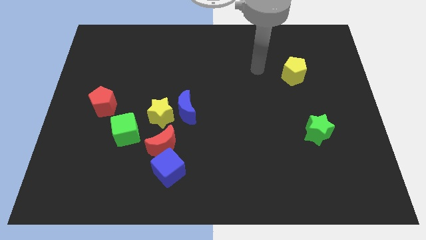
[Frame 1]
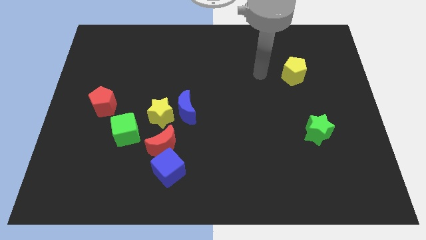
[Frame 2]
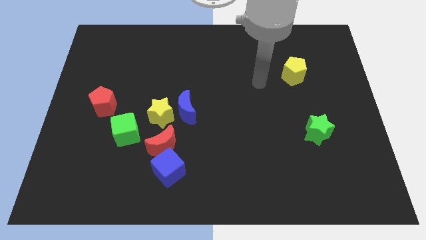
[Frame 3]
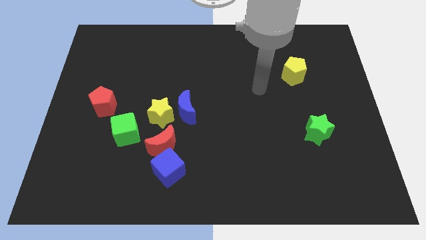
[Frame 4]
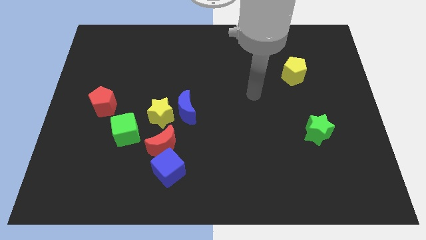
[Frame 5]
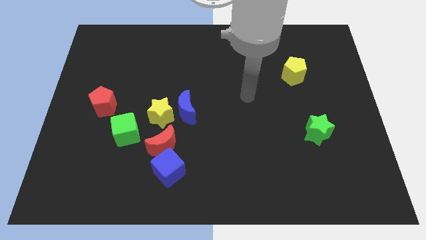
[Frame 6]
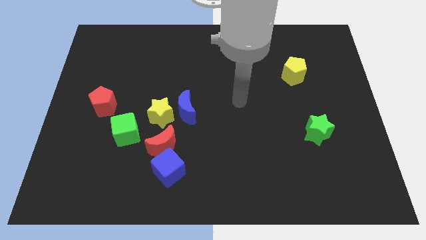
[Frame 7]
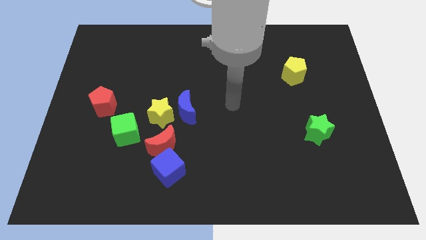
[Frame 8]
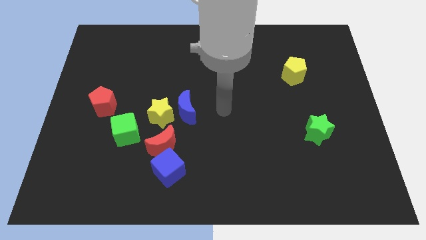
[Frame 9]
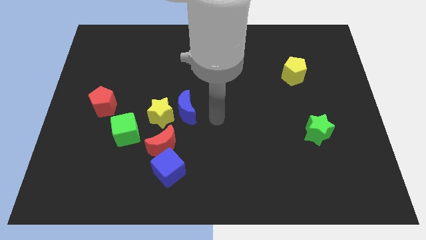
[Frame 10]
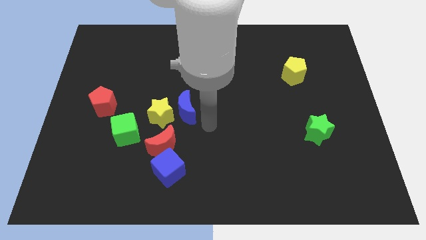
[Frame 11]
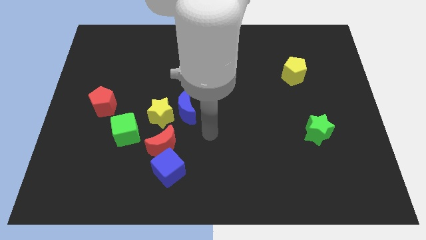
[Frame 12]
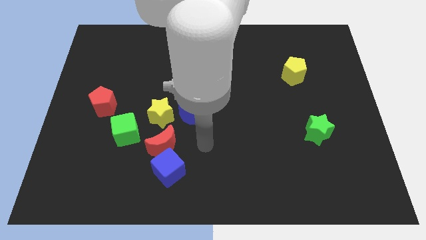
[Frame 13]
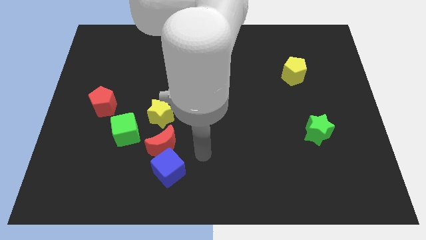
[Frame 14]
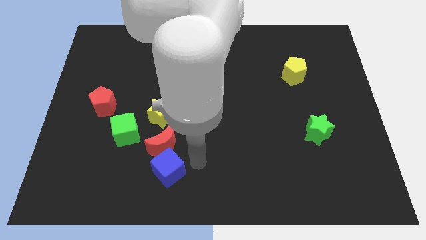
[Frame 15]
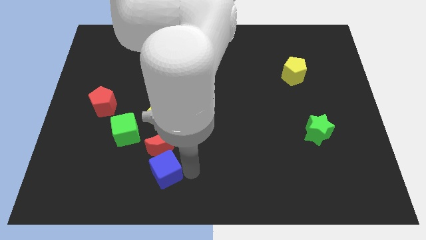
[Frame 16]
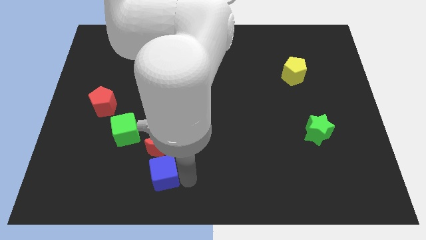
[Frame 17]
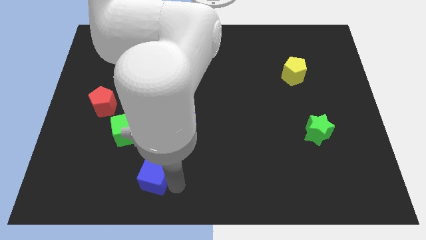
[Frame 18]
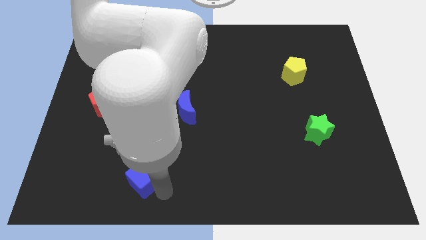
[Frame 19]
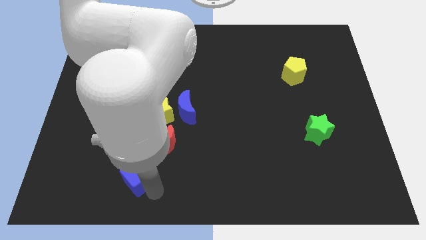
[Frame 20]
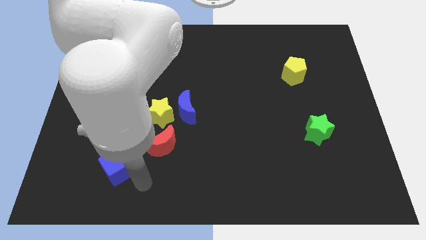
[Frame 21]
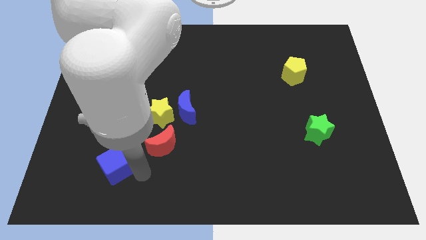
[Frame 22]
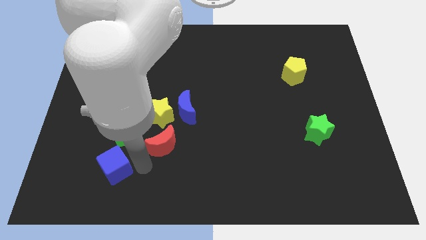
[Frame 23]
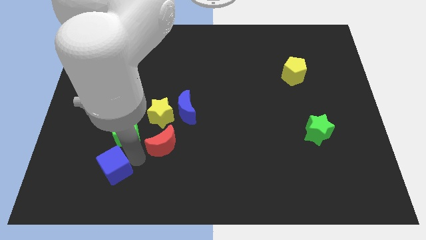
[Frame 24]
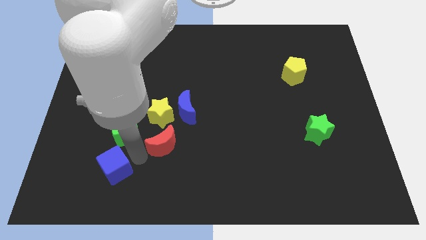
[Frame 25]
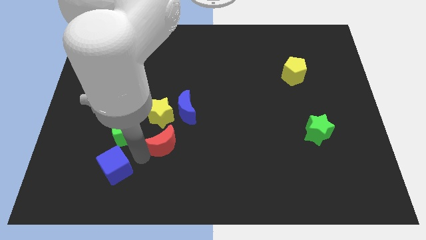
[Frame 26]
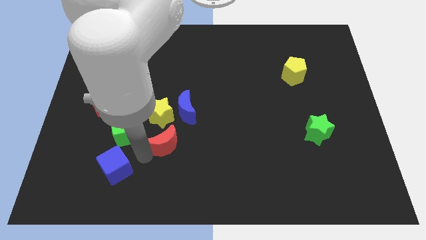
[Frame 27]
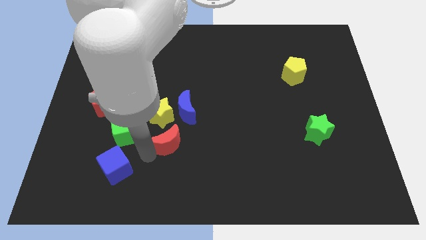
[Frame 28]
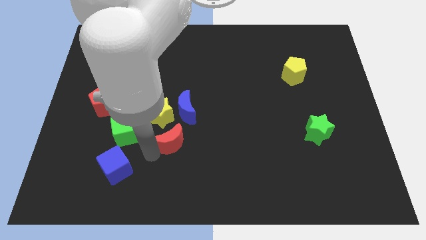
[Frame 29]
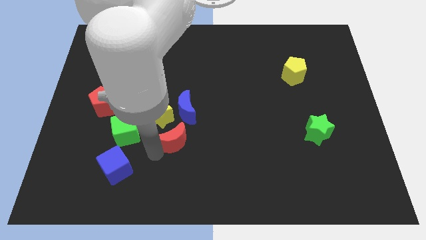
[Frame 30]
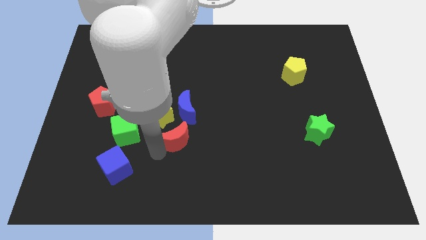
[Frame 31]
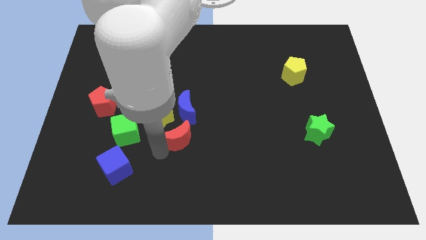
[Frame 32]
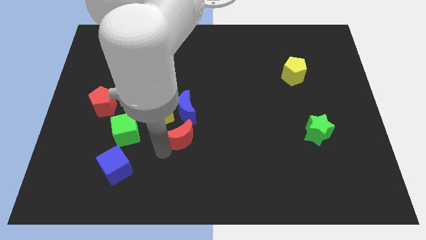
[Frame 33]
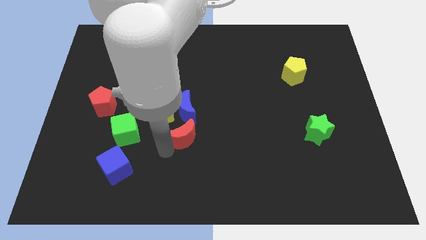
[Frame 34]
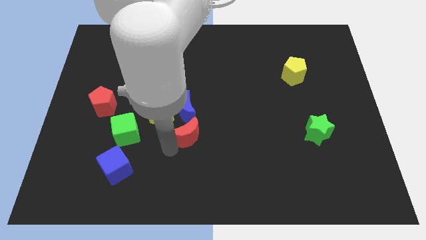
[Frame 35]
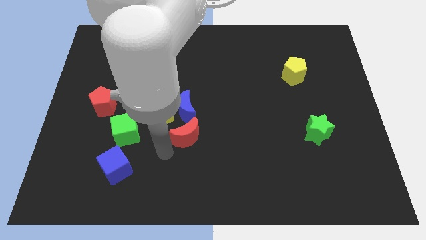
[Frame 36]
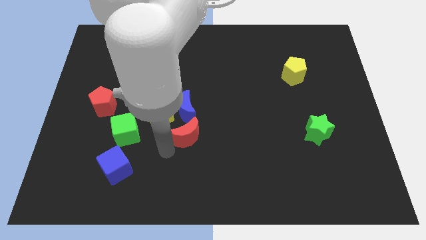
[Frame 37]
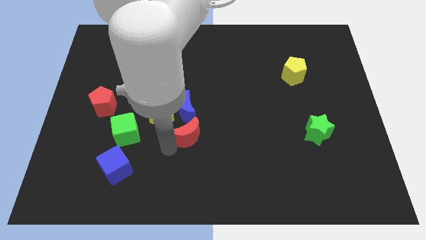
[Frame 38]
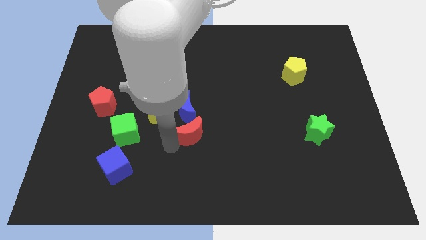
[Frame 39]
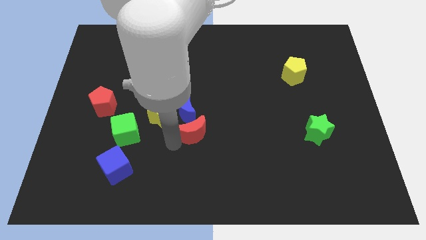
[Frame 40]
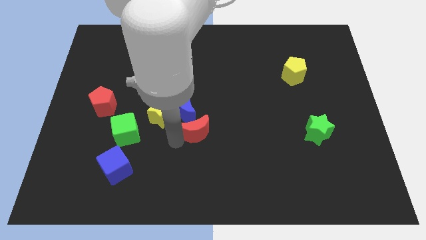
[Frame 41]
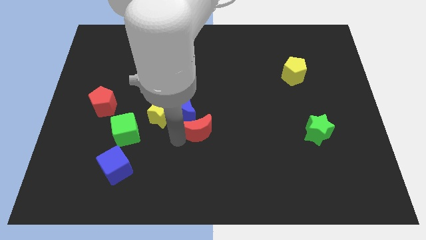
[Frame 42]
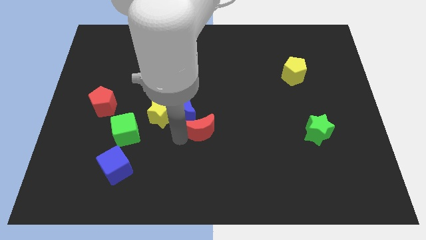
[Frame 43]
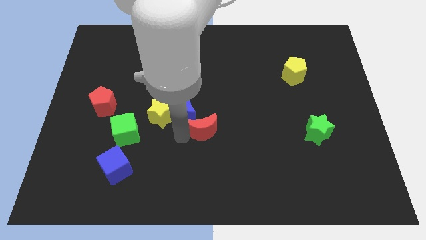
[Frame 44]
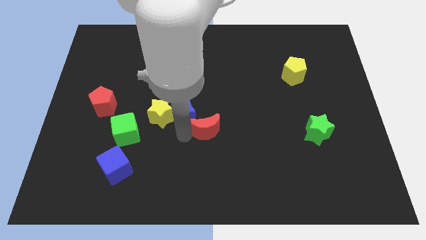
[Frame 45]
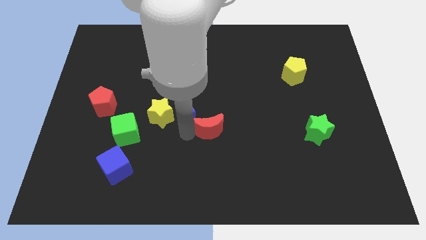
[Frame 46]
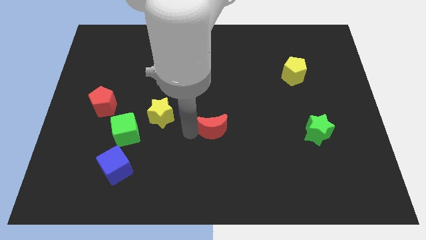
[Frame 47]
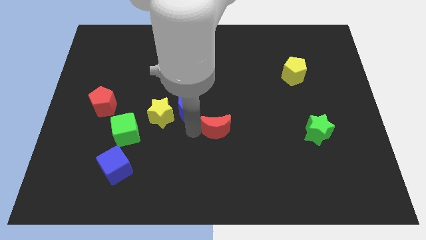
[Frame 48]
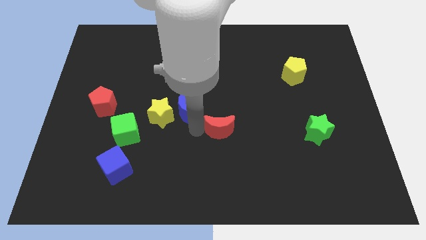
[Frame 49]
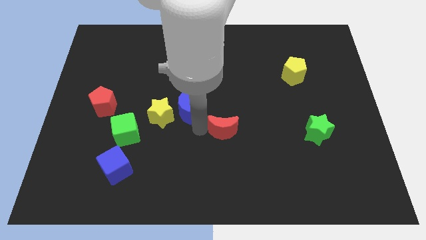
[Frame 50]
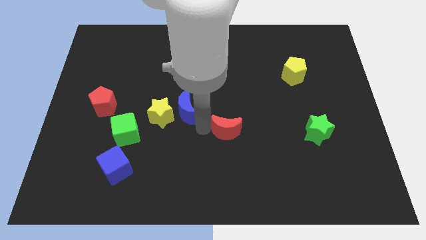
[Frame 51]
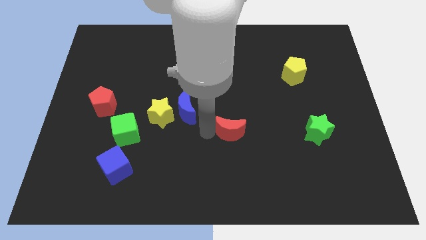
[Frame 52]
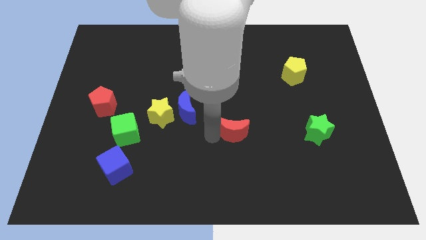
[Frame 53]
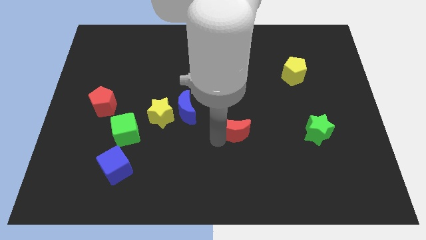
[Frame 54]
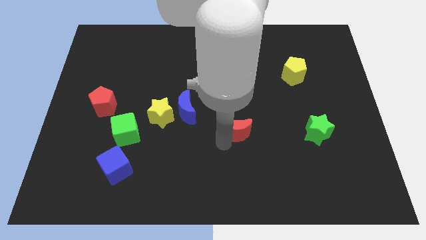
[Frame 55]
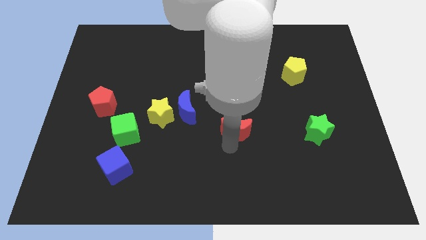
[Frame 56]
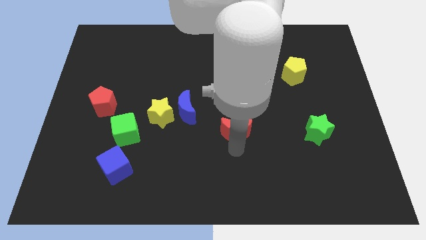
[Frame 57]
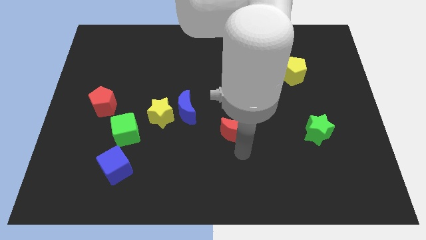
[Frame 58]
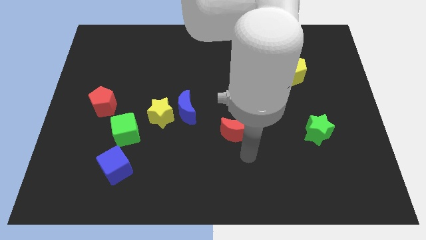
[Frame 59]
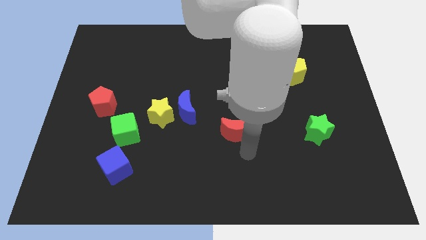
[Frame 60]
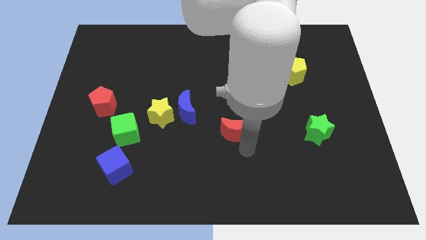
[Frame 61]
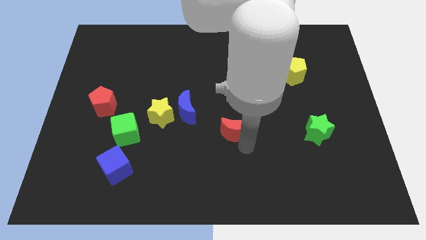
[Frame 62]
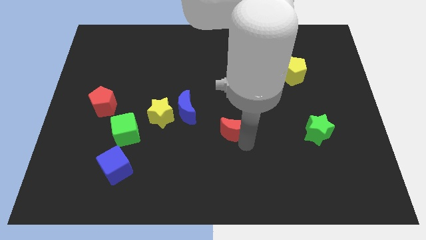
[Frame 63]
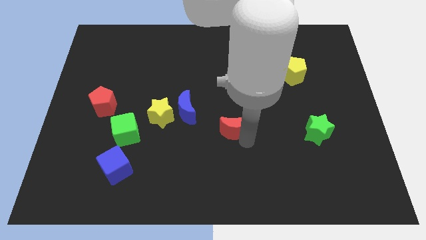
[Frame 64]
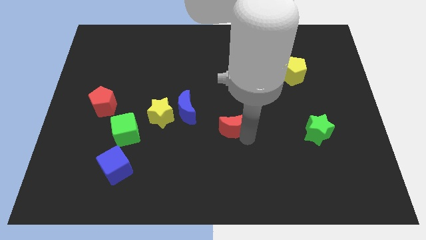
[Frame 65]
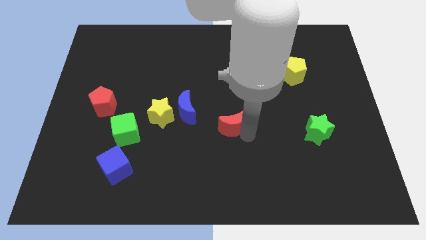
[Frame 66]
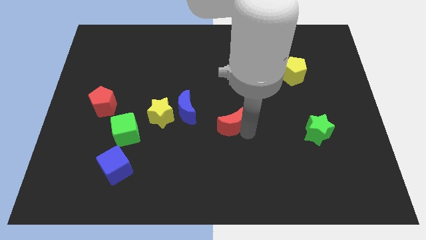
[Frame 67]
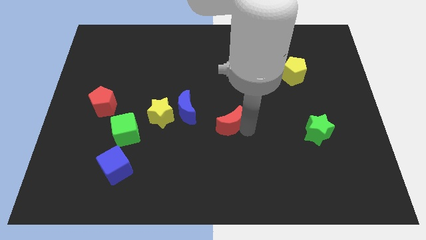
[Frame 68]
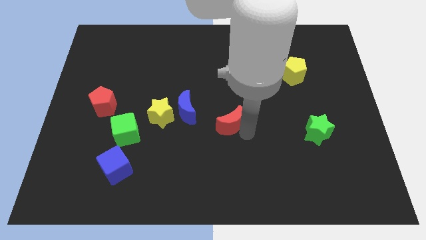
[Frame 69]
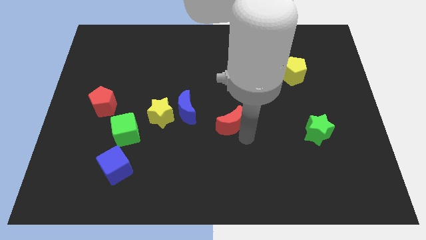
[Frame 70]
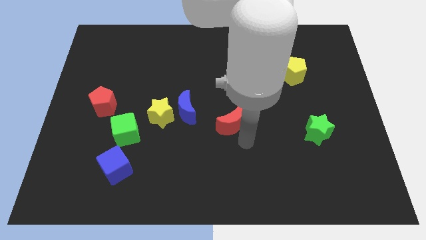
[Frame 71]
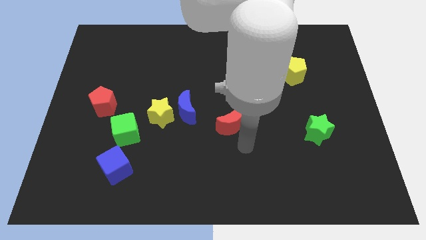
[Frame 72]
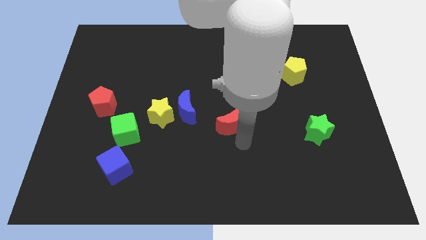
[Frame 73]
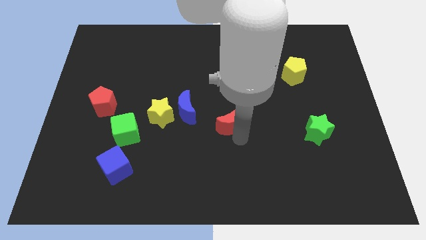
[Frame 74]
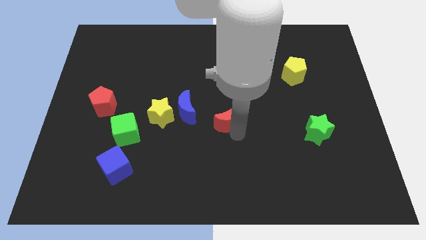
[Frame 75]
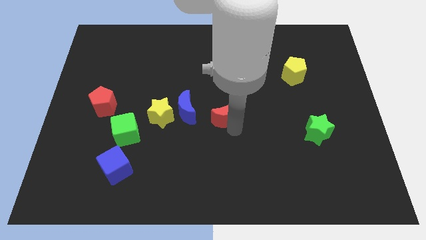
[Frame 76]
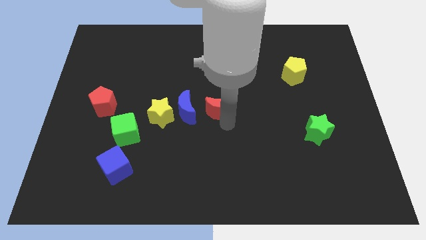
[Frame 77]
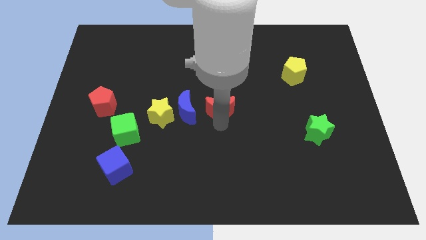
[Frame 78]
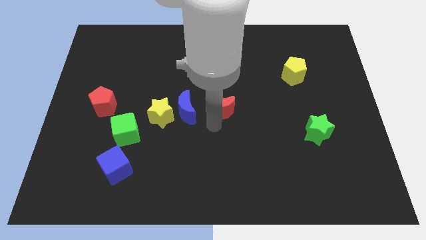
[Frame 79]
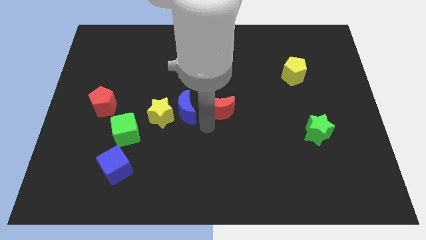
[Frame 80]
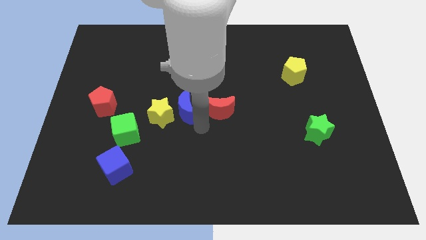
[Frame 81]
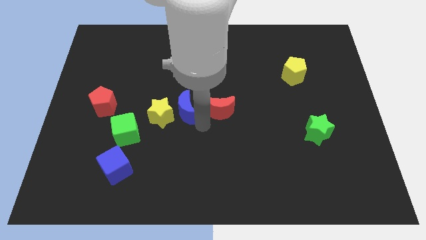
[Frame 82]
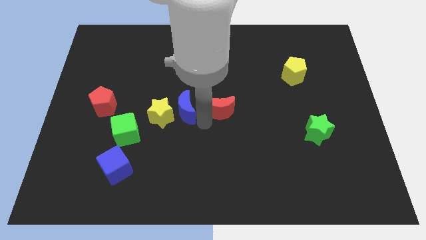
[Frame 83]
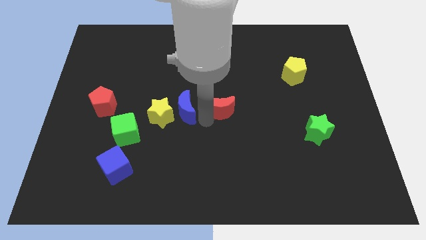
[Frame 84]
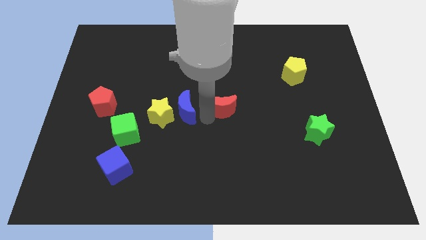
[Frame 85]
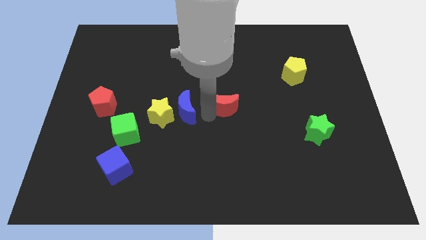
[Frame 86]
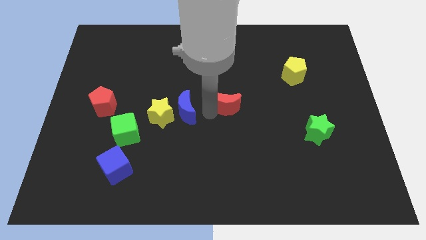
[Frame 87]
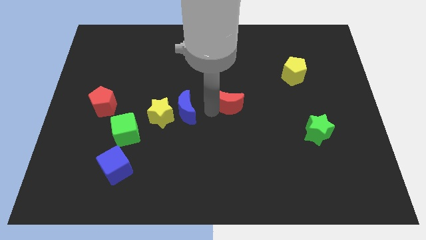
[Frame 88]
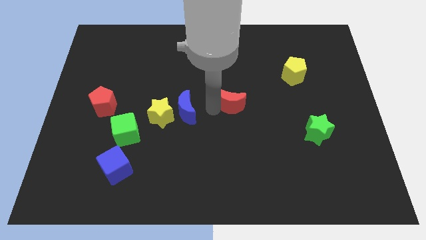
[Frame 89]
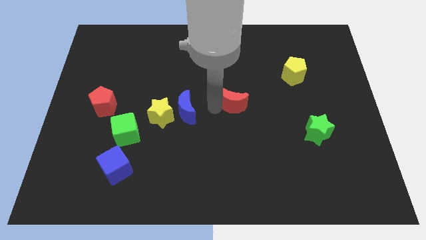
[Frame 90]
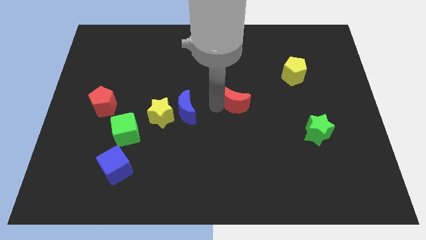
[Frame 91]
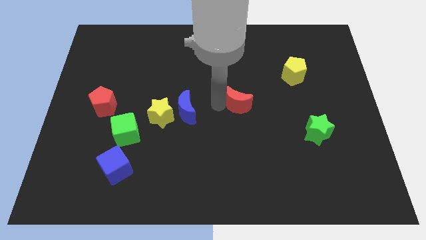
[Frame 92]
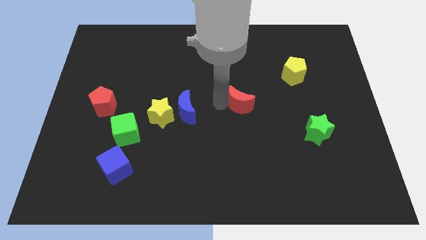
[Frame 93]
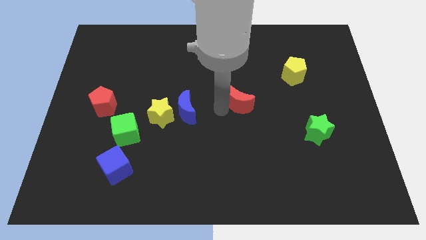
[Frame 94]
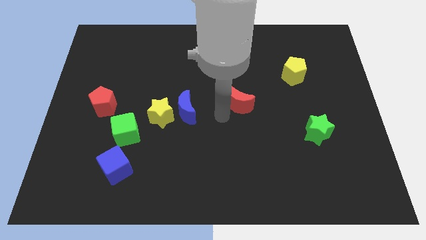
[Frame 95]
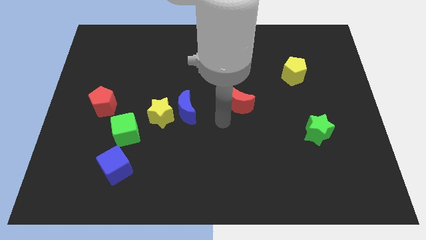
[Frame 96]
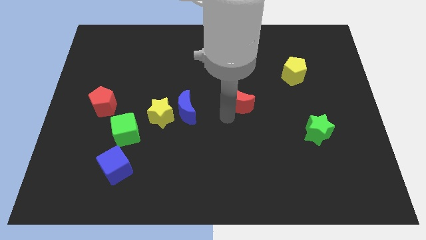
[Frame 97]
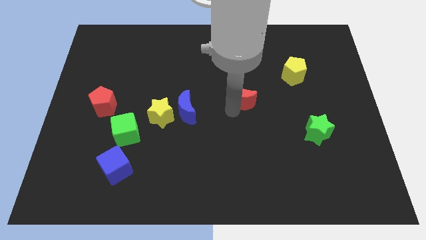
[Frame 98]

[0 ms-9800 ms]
push the red moon upwards and right
